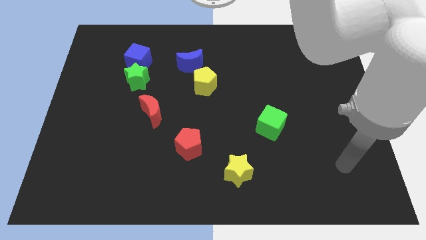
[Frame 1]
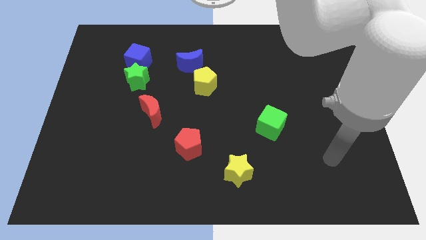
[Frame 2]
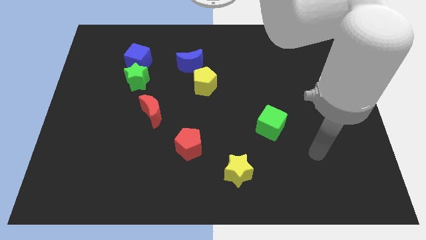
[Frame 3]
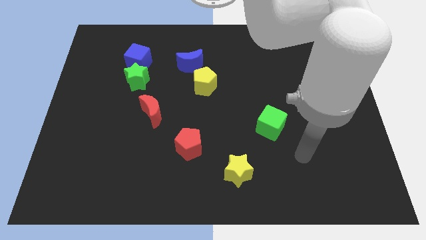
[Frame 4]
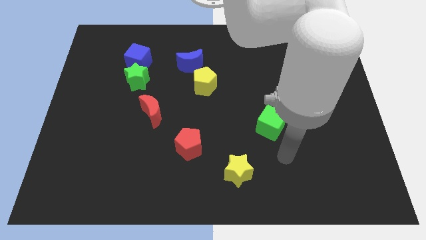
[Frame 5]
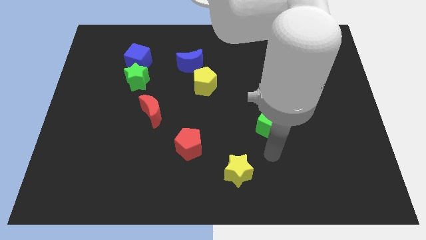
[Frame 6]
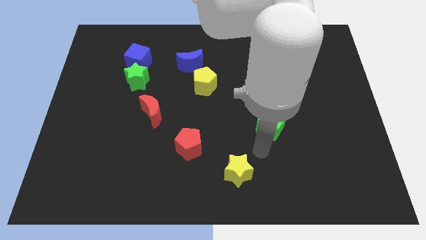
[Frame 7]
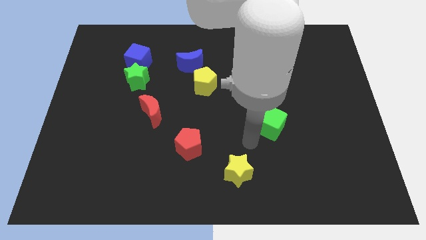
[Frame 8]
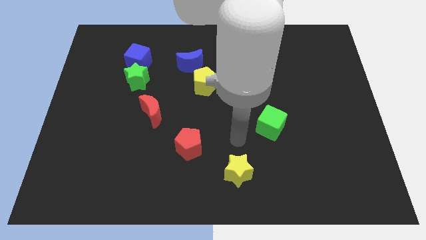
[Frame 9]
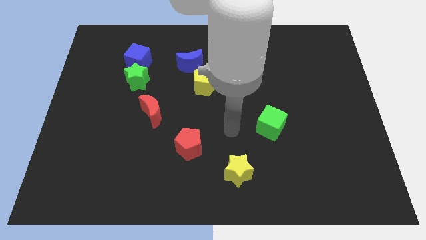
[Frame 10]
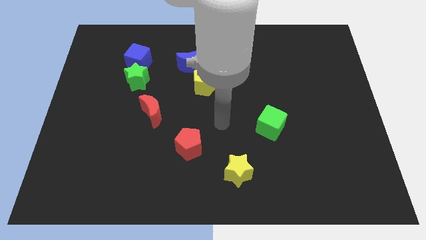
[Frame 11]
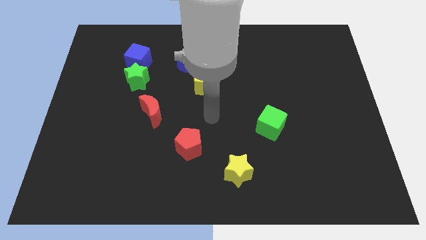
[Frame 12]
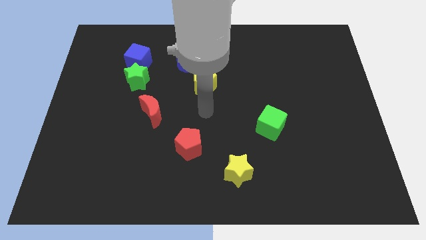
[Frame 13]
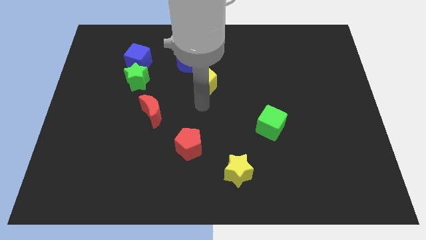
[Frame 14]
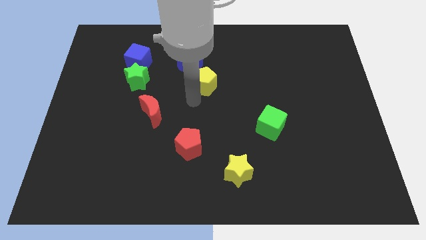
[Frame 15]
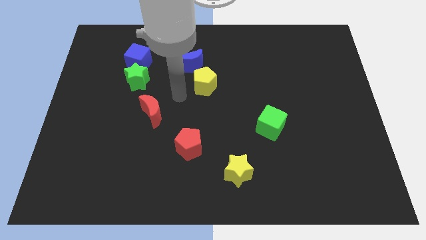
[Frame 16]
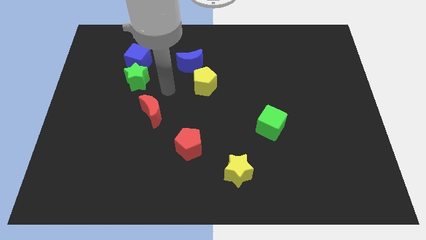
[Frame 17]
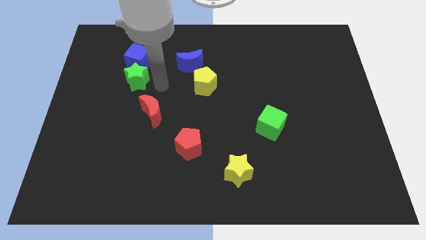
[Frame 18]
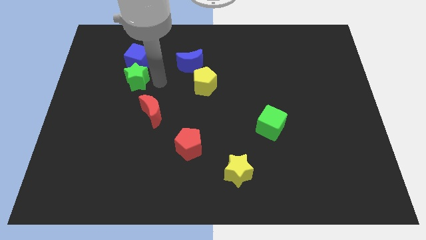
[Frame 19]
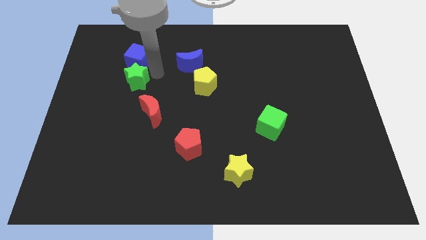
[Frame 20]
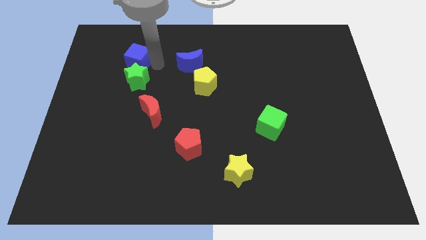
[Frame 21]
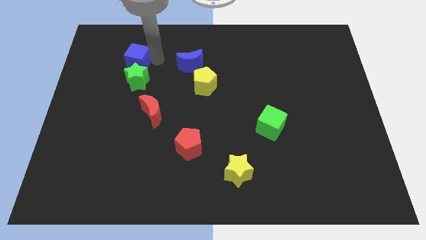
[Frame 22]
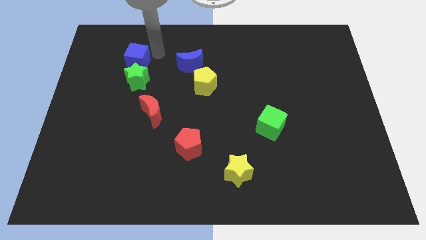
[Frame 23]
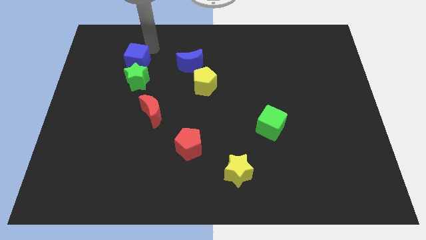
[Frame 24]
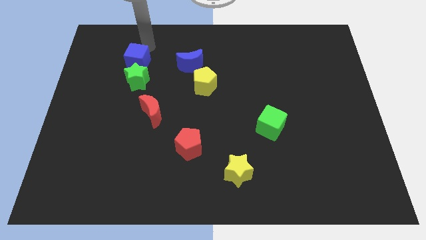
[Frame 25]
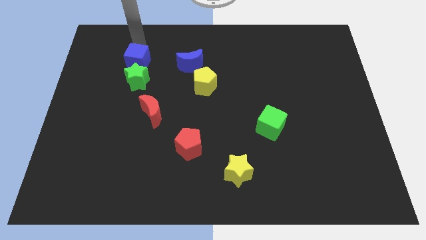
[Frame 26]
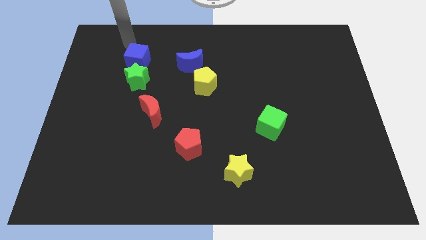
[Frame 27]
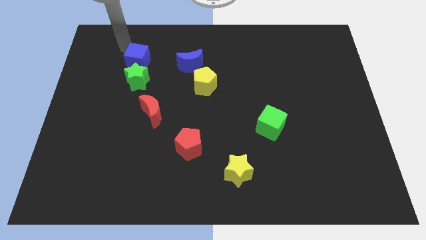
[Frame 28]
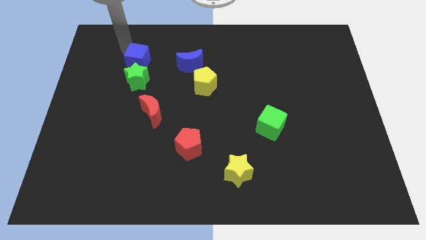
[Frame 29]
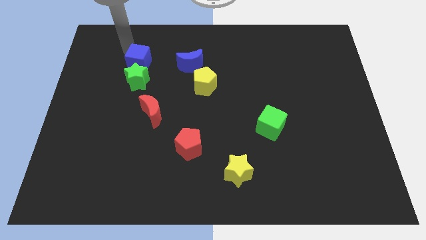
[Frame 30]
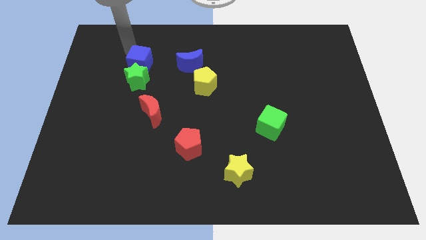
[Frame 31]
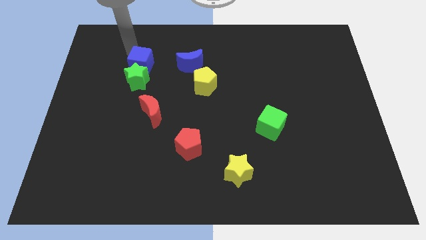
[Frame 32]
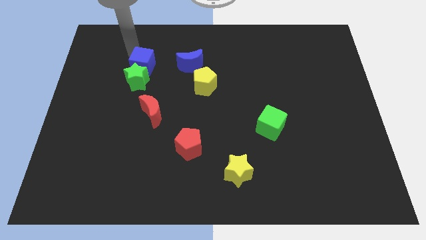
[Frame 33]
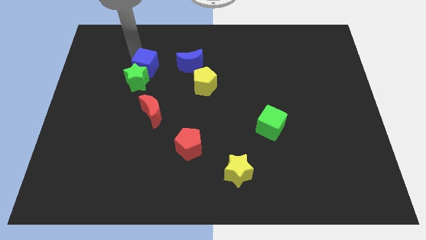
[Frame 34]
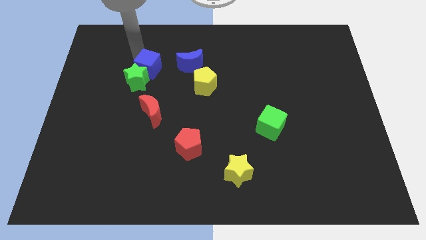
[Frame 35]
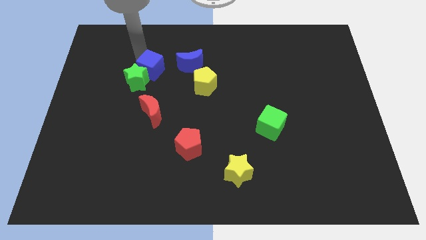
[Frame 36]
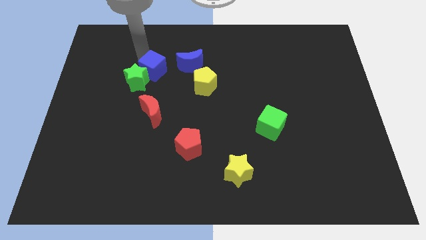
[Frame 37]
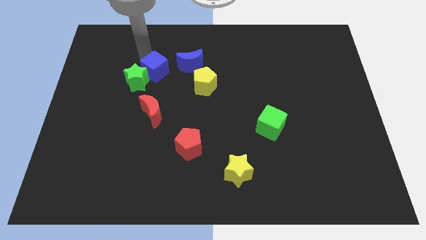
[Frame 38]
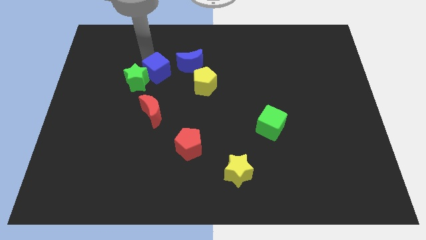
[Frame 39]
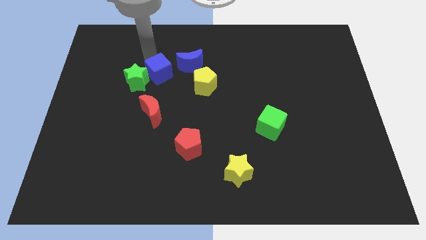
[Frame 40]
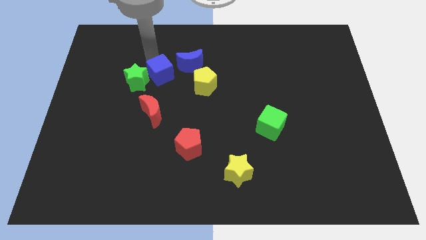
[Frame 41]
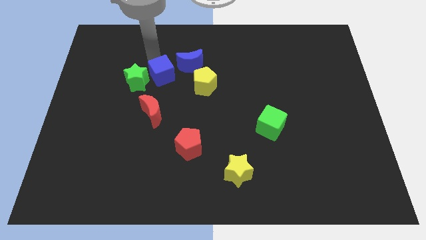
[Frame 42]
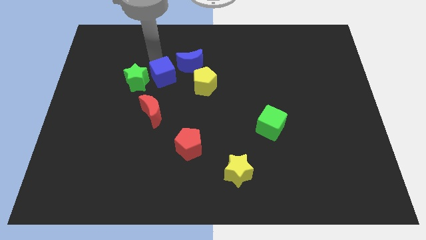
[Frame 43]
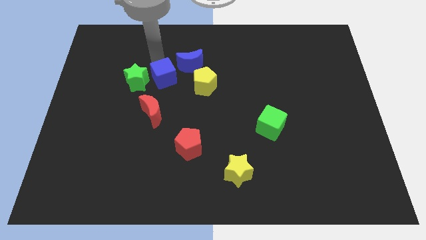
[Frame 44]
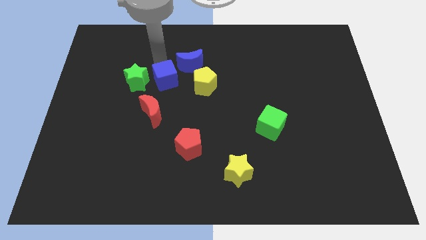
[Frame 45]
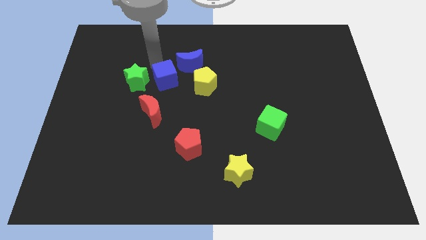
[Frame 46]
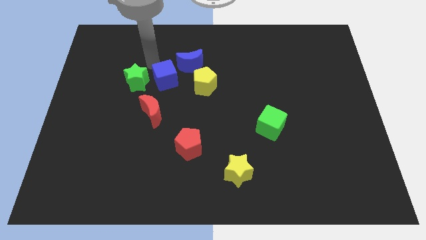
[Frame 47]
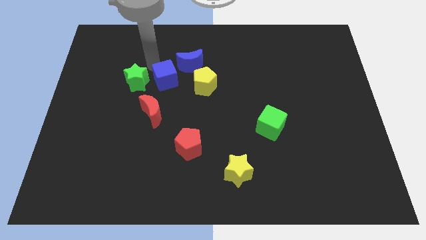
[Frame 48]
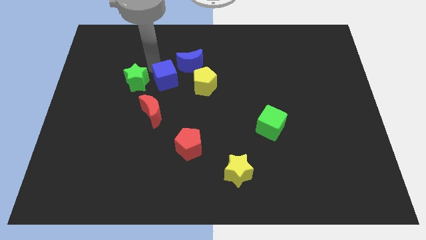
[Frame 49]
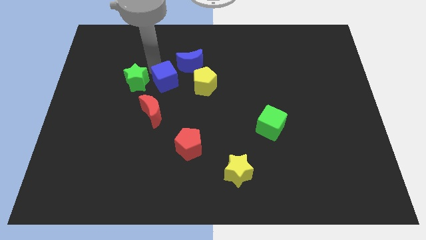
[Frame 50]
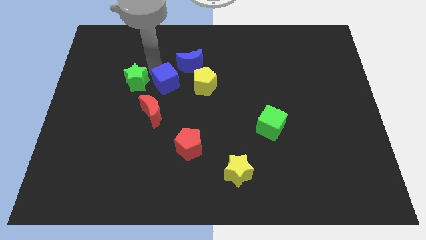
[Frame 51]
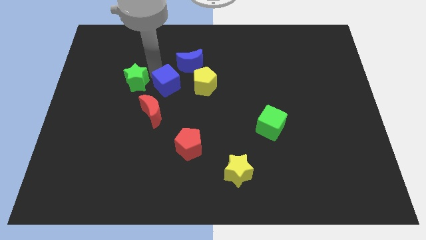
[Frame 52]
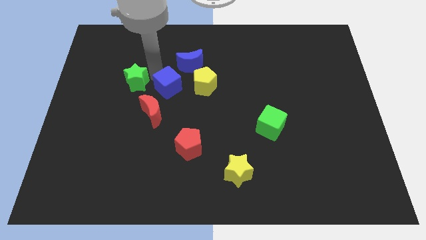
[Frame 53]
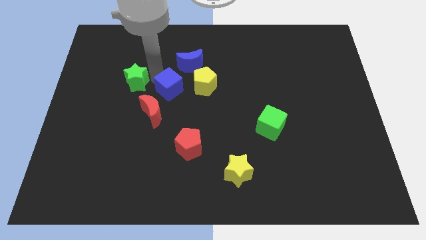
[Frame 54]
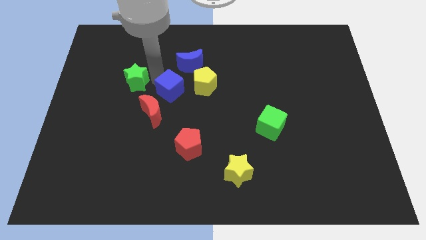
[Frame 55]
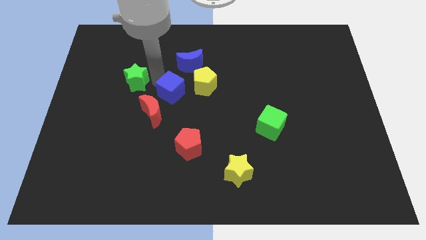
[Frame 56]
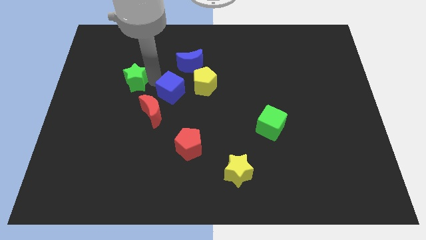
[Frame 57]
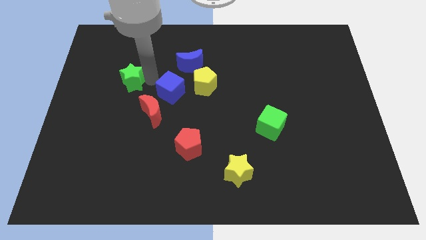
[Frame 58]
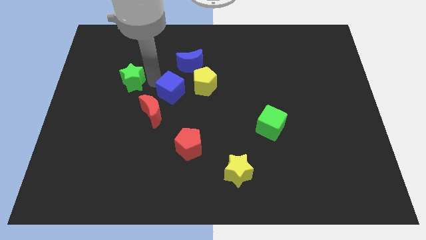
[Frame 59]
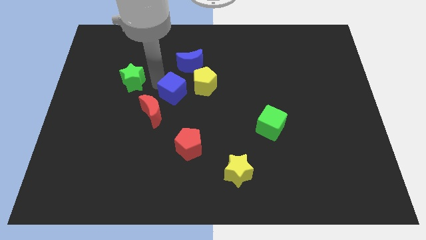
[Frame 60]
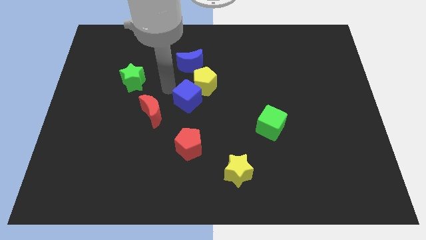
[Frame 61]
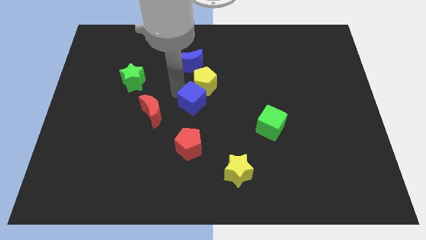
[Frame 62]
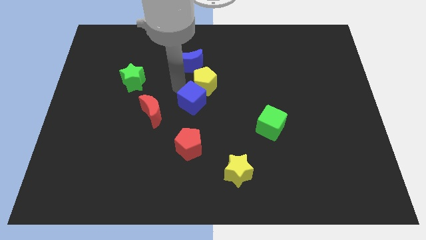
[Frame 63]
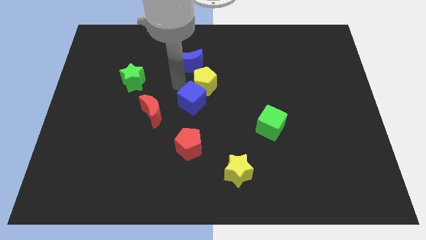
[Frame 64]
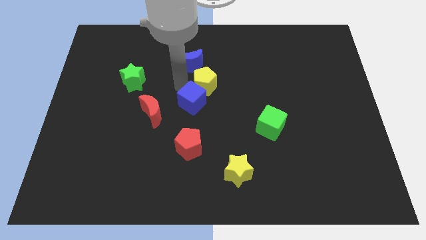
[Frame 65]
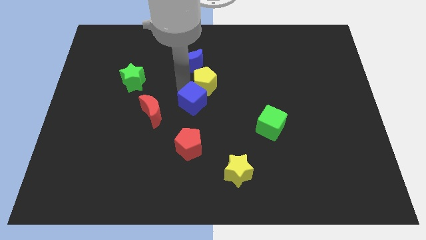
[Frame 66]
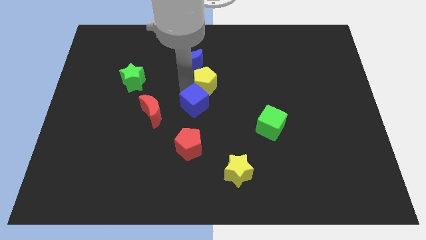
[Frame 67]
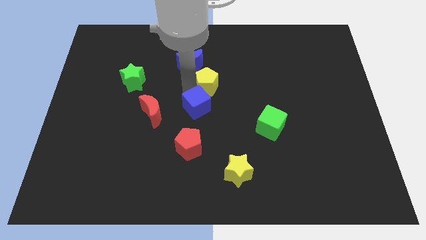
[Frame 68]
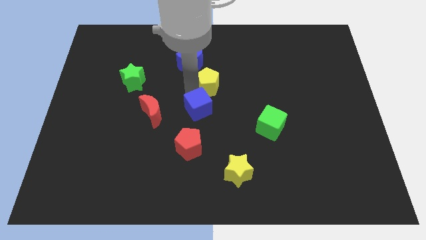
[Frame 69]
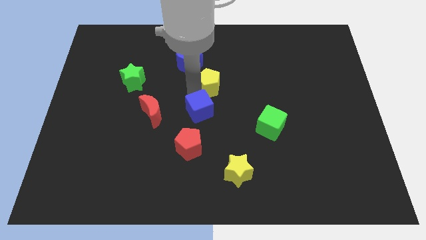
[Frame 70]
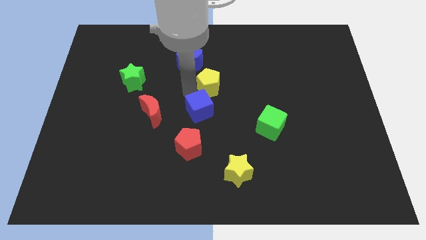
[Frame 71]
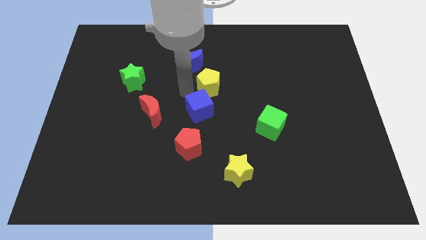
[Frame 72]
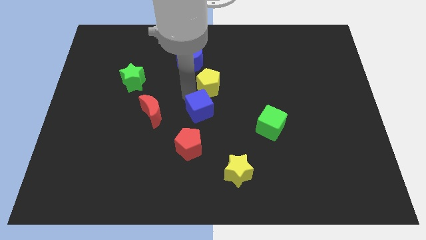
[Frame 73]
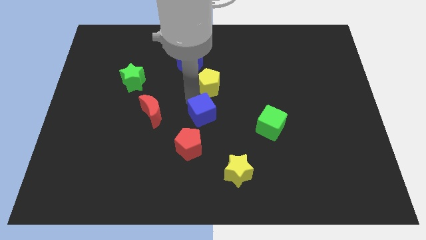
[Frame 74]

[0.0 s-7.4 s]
push the blue cube to the top right of the red pentagon

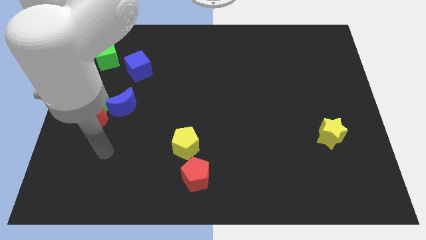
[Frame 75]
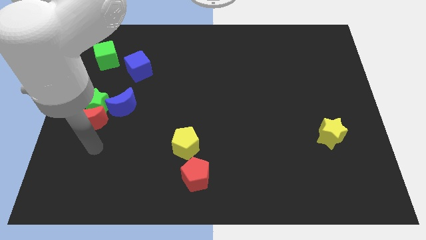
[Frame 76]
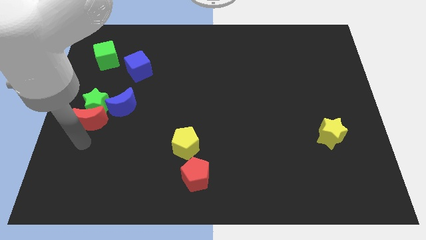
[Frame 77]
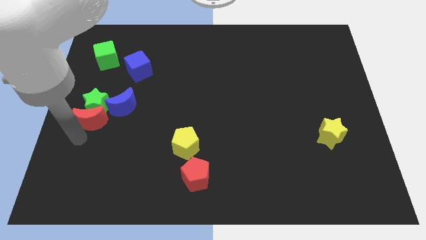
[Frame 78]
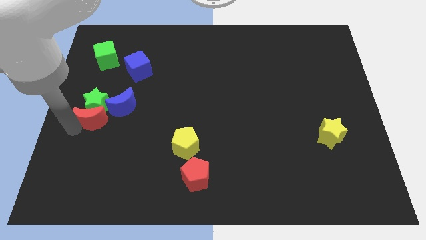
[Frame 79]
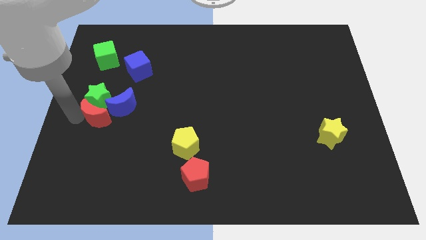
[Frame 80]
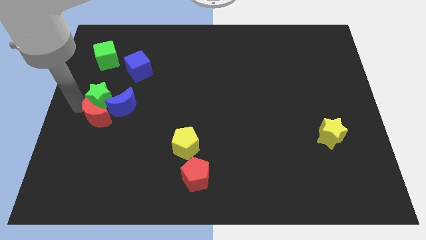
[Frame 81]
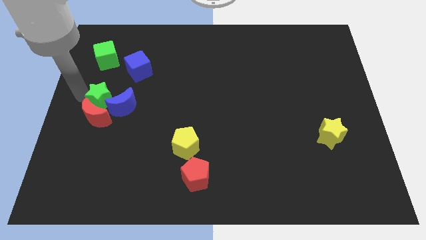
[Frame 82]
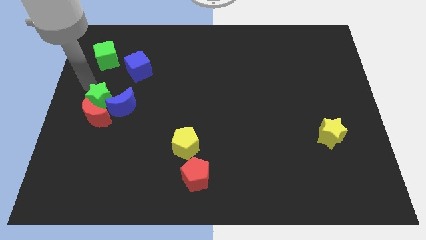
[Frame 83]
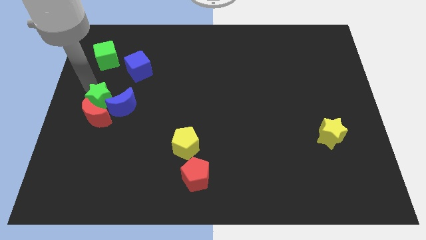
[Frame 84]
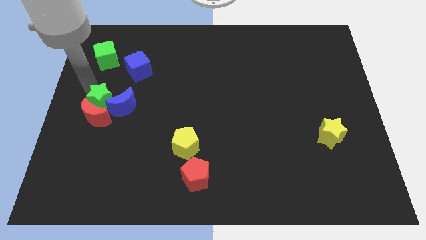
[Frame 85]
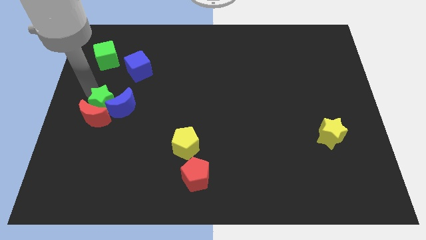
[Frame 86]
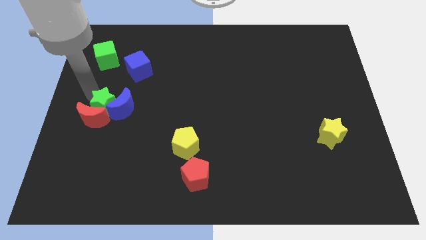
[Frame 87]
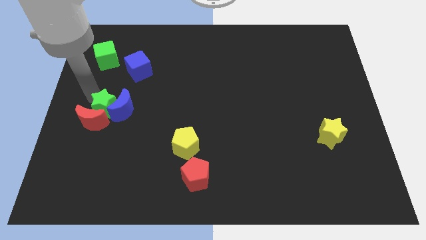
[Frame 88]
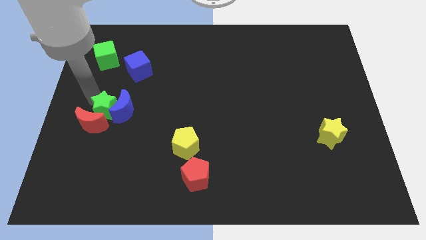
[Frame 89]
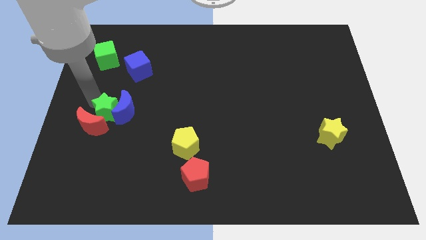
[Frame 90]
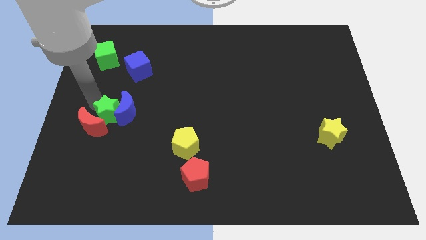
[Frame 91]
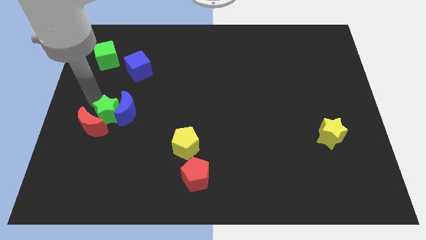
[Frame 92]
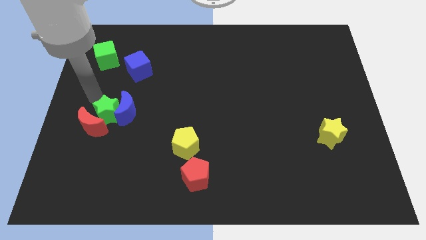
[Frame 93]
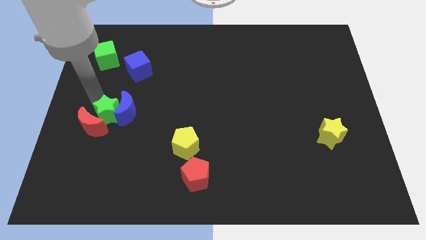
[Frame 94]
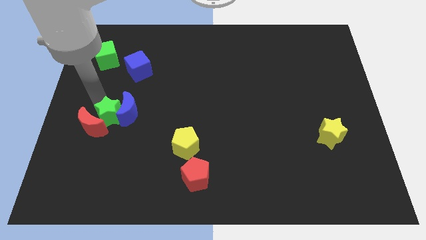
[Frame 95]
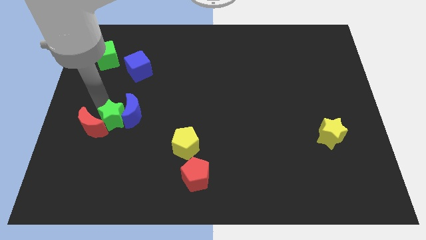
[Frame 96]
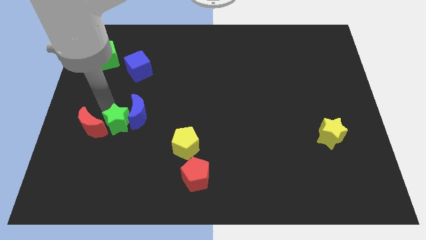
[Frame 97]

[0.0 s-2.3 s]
move the green star diagonally down and to the right of the red moon
